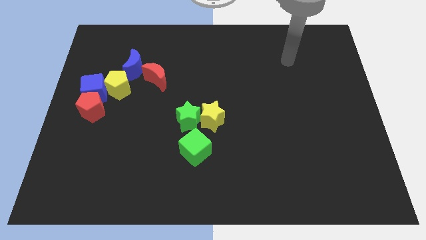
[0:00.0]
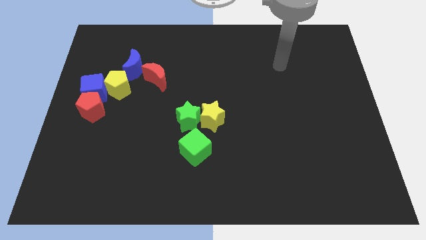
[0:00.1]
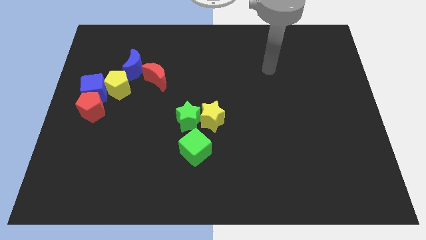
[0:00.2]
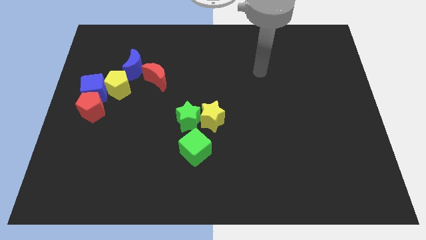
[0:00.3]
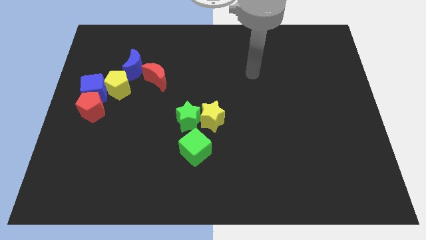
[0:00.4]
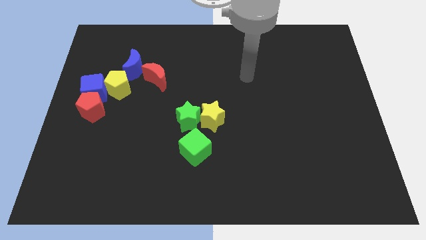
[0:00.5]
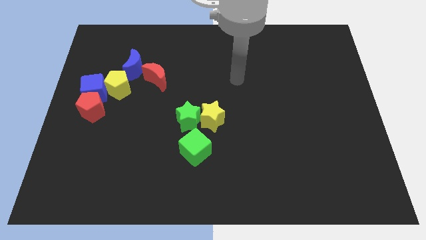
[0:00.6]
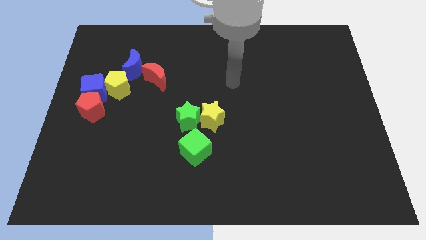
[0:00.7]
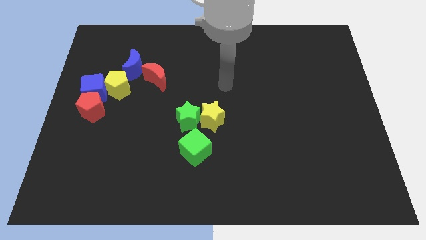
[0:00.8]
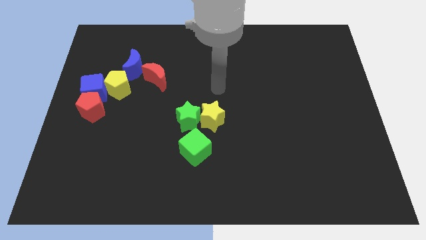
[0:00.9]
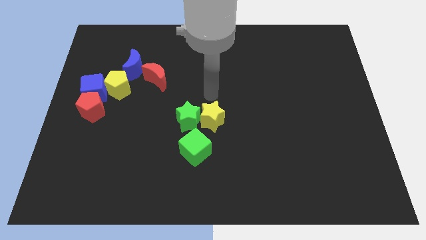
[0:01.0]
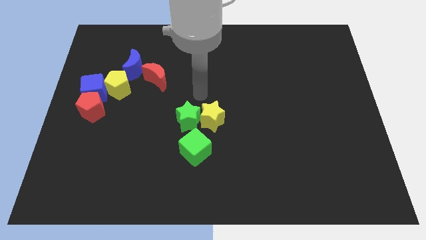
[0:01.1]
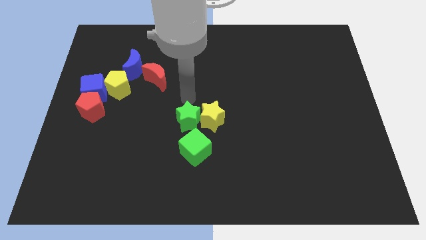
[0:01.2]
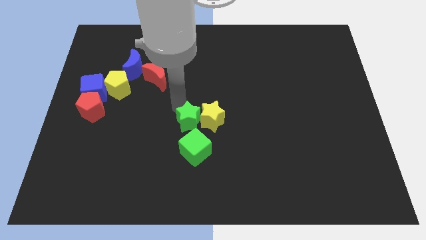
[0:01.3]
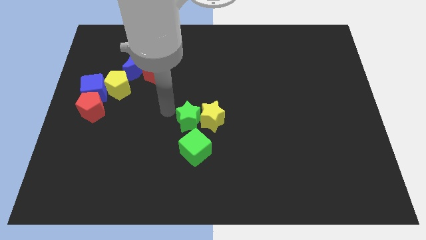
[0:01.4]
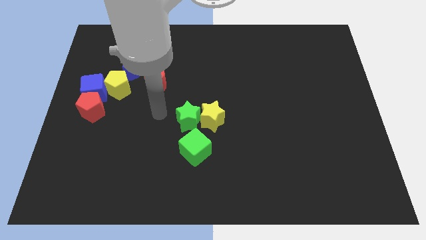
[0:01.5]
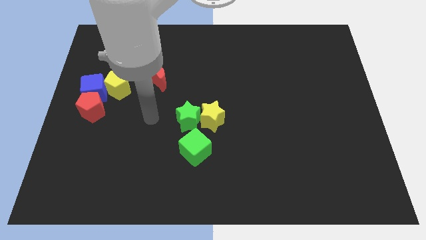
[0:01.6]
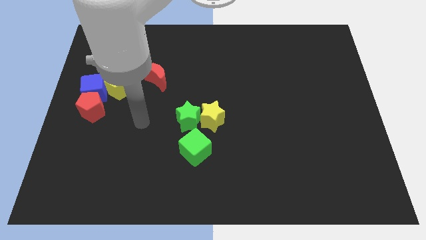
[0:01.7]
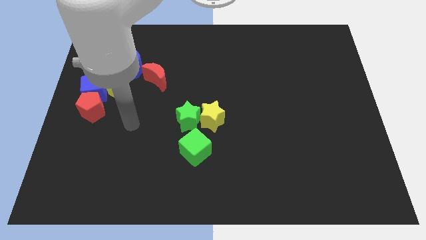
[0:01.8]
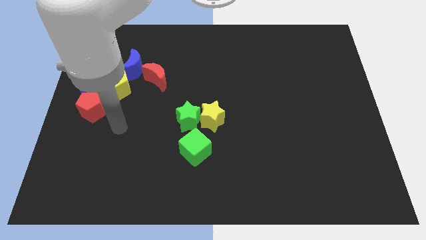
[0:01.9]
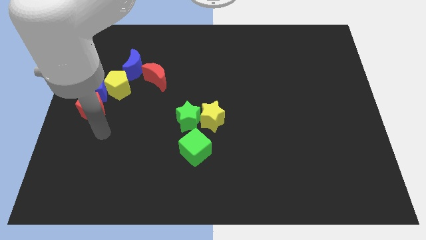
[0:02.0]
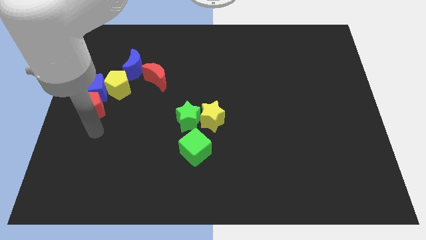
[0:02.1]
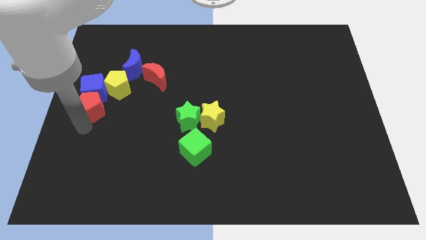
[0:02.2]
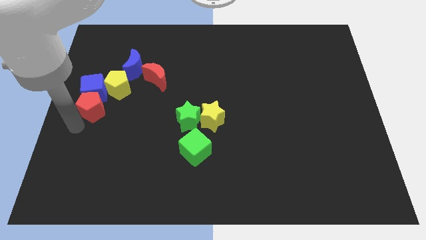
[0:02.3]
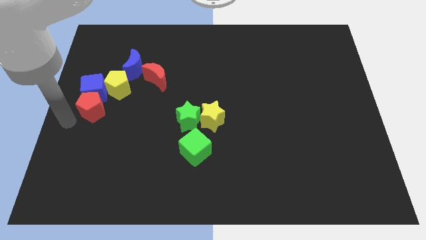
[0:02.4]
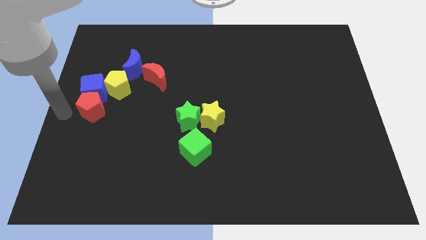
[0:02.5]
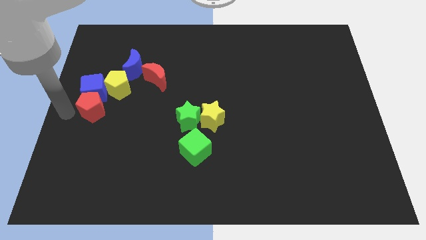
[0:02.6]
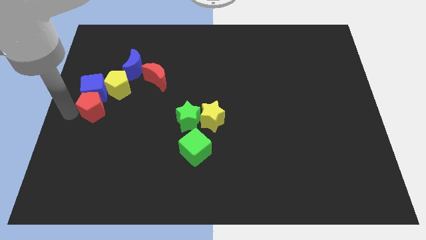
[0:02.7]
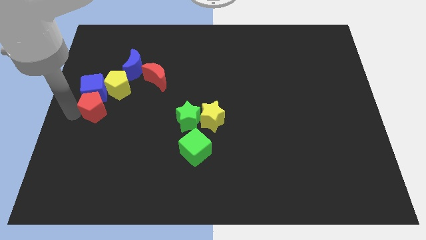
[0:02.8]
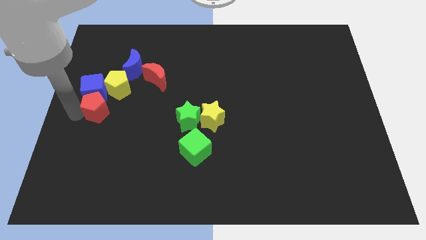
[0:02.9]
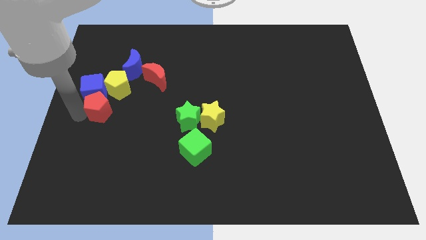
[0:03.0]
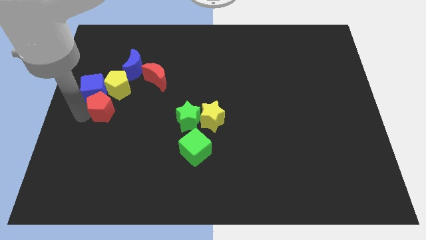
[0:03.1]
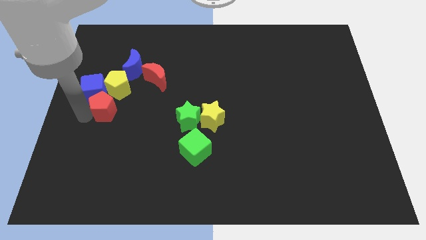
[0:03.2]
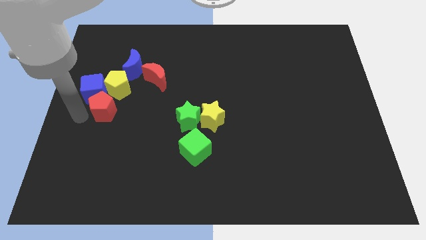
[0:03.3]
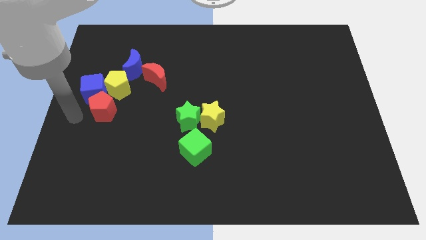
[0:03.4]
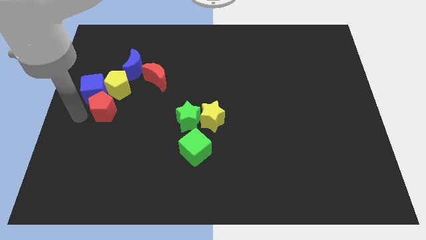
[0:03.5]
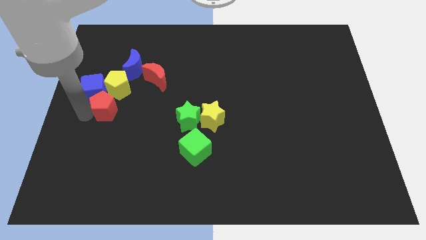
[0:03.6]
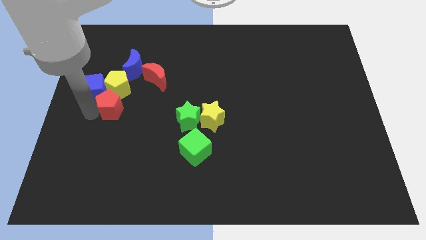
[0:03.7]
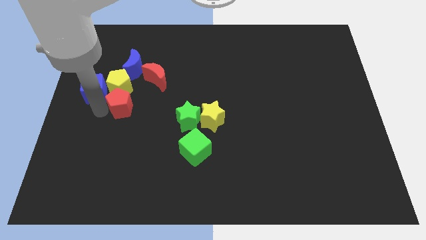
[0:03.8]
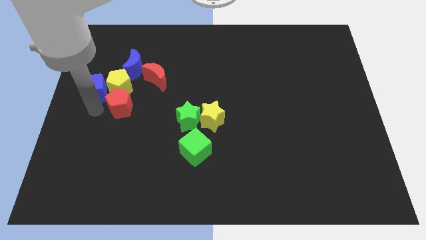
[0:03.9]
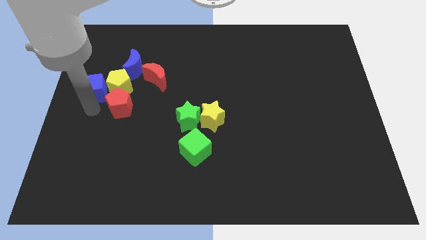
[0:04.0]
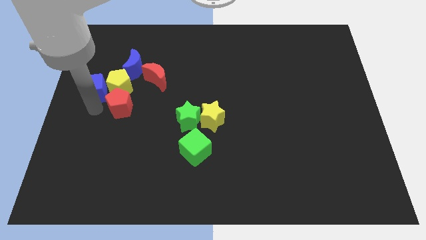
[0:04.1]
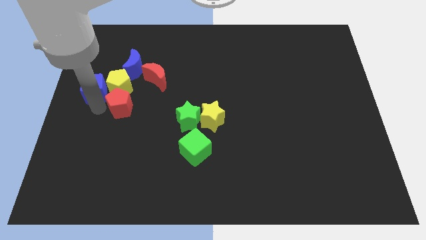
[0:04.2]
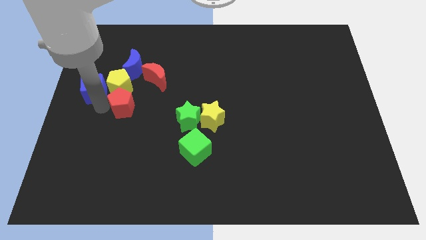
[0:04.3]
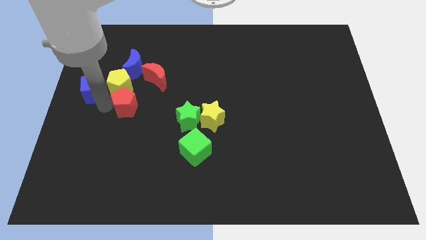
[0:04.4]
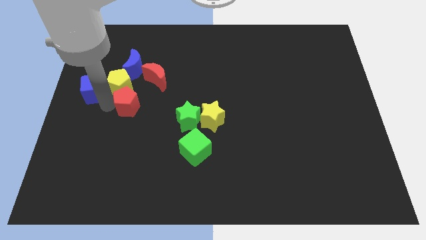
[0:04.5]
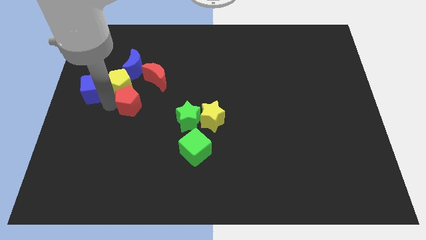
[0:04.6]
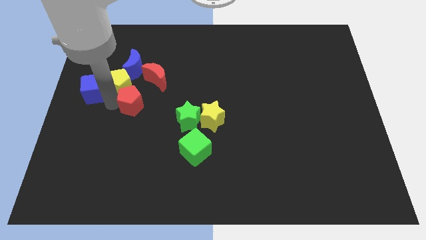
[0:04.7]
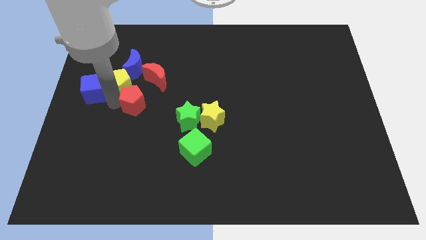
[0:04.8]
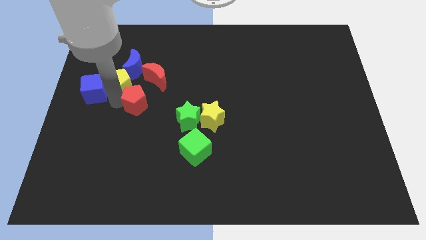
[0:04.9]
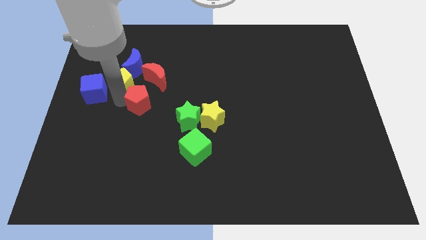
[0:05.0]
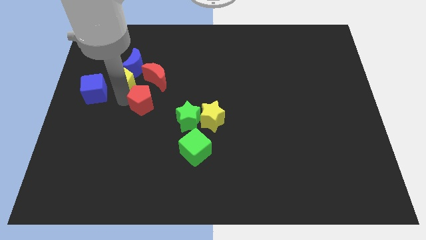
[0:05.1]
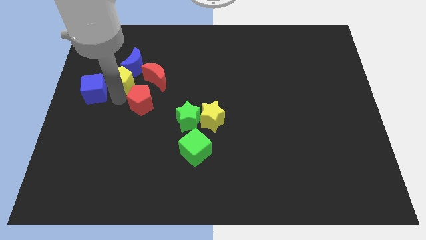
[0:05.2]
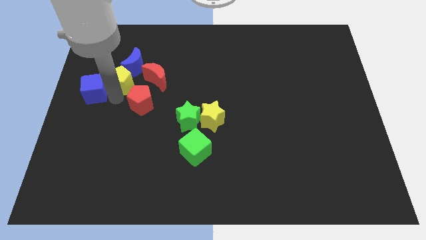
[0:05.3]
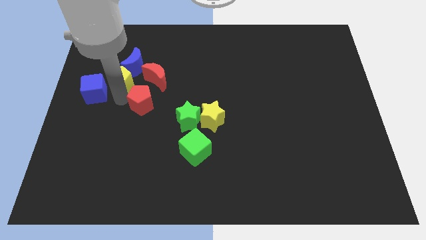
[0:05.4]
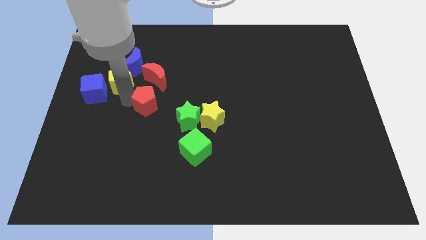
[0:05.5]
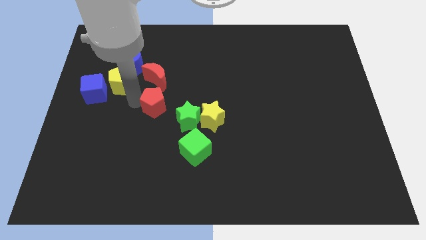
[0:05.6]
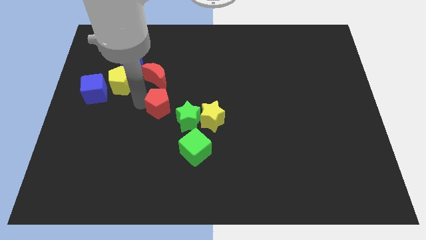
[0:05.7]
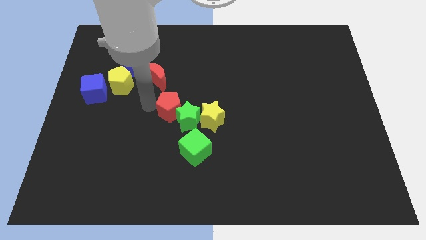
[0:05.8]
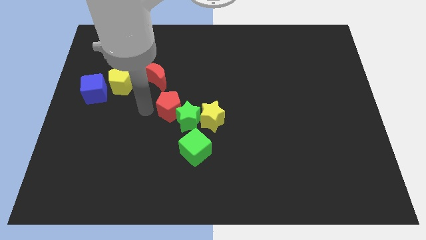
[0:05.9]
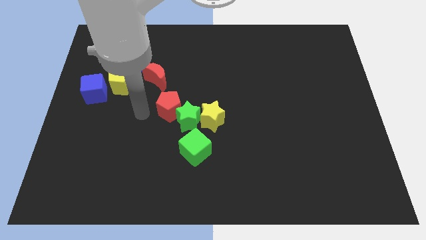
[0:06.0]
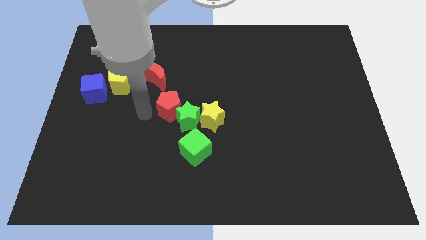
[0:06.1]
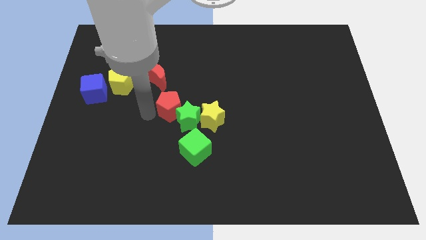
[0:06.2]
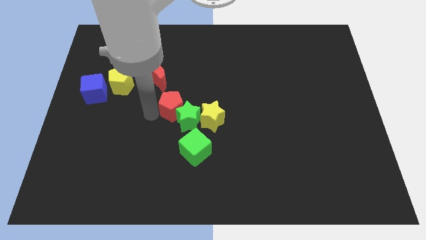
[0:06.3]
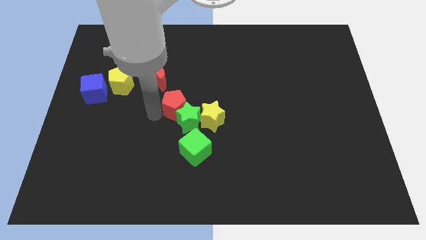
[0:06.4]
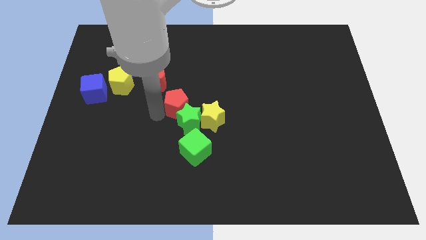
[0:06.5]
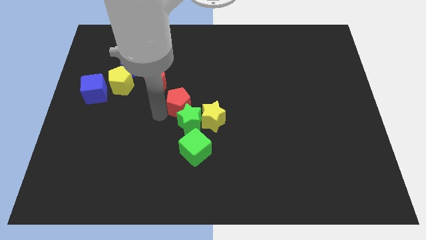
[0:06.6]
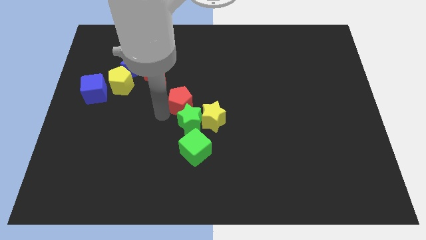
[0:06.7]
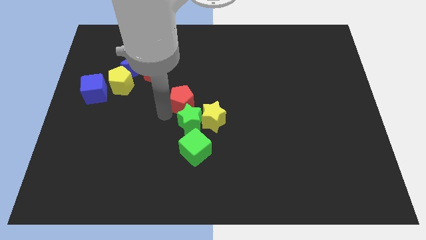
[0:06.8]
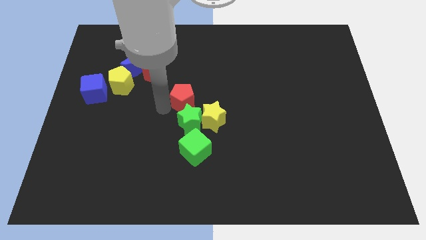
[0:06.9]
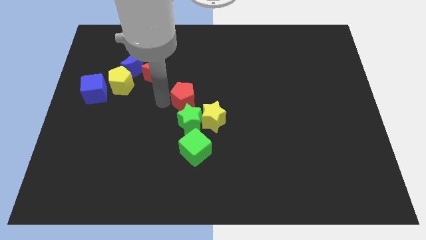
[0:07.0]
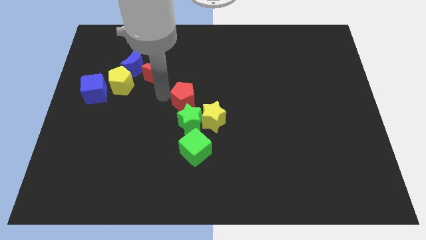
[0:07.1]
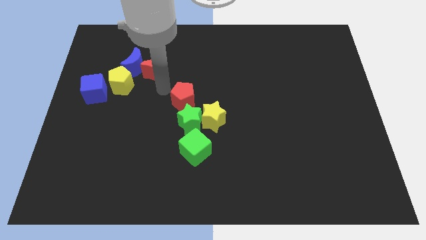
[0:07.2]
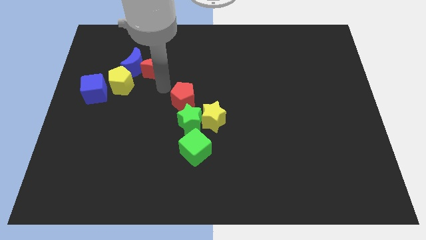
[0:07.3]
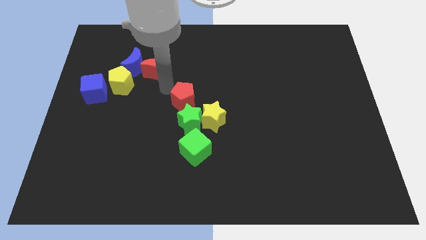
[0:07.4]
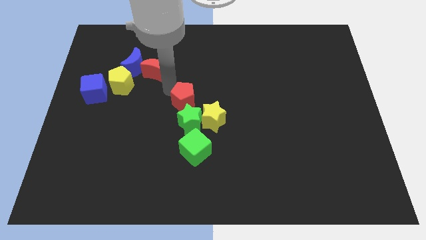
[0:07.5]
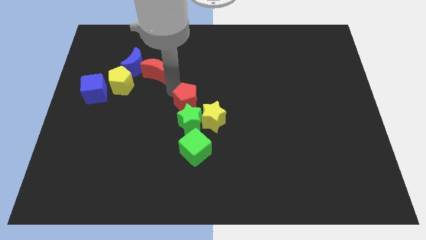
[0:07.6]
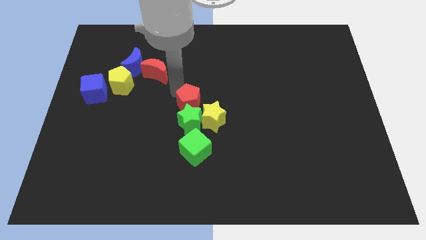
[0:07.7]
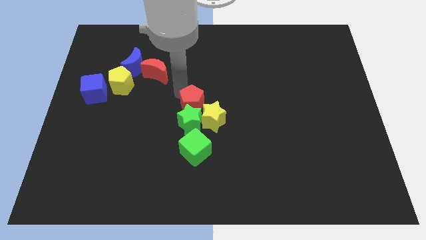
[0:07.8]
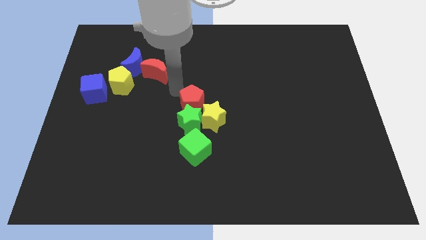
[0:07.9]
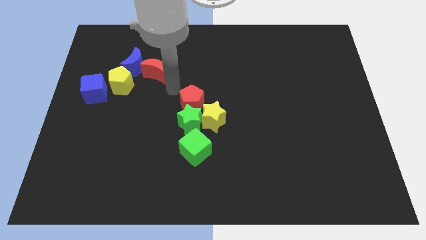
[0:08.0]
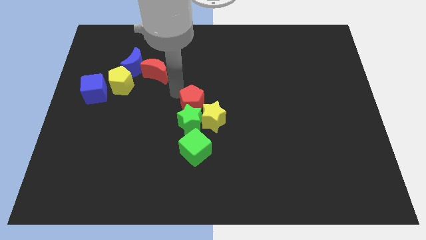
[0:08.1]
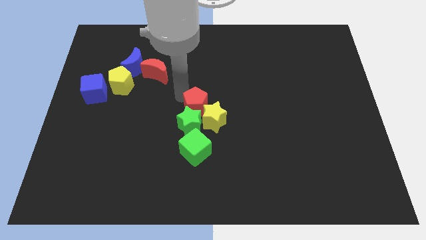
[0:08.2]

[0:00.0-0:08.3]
move the red pentagon close to the yellow star
